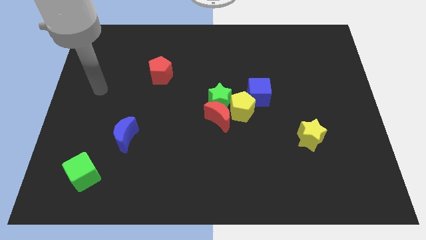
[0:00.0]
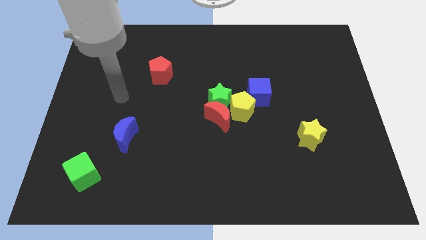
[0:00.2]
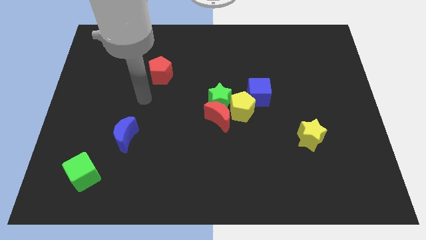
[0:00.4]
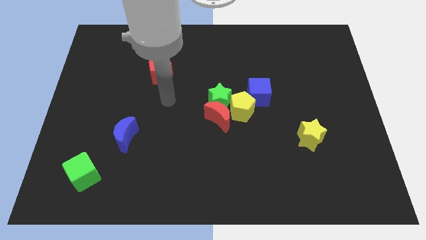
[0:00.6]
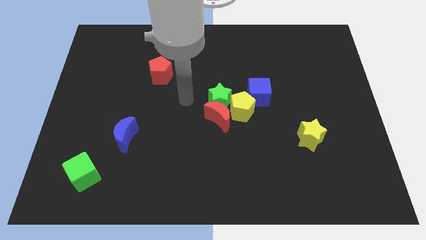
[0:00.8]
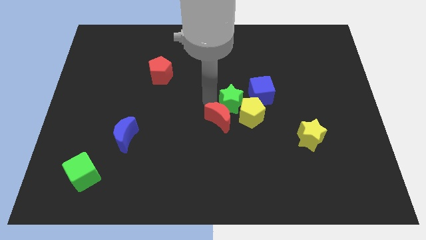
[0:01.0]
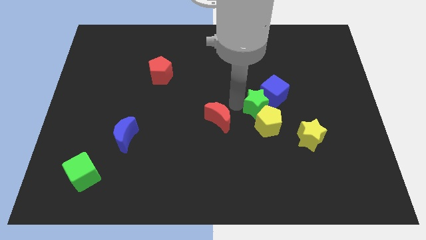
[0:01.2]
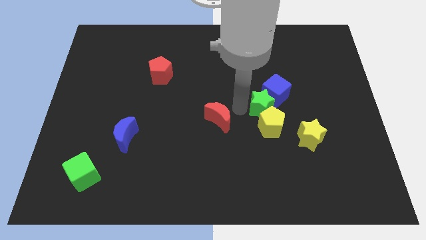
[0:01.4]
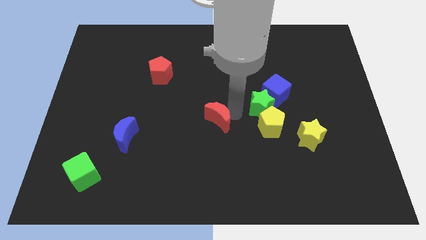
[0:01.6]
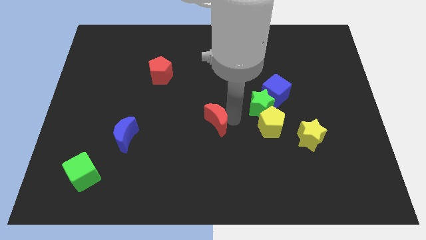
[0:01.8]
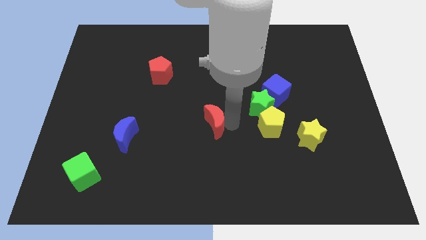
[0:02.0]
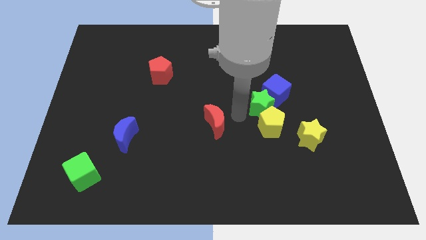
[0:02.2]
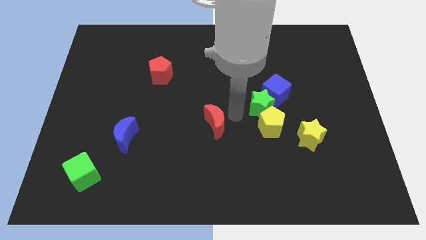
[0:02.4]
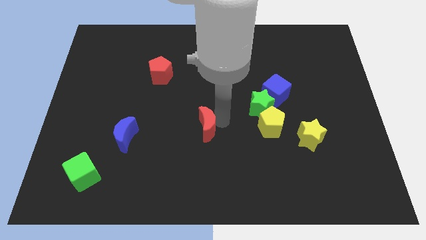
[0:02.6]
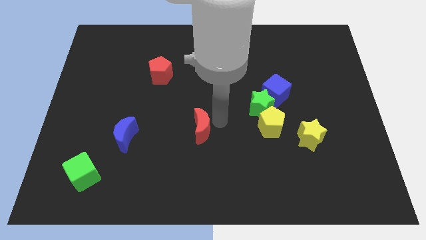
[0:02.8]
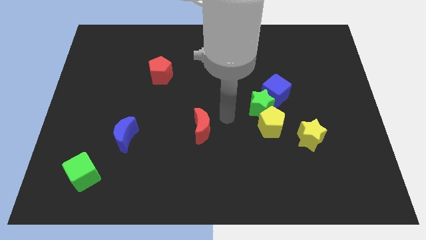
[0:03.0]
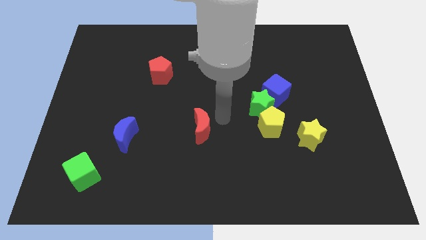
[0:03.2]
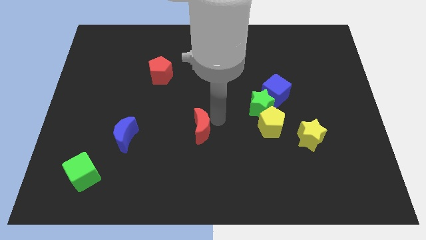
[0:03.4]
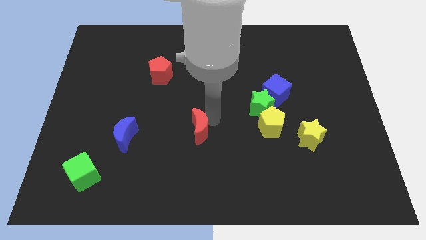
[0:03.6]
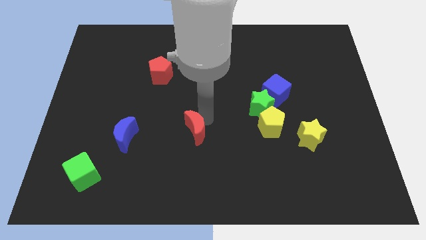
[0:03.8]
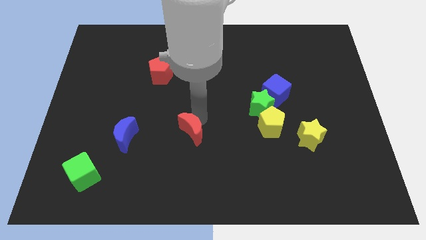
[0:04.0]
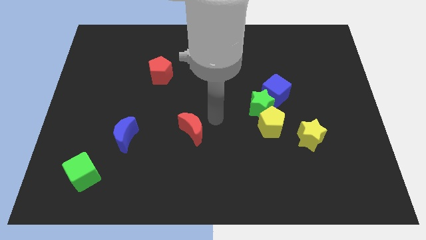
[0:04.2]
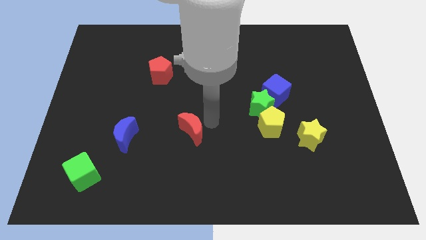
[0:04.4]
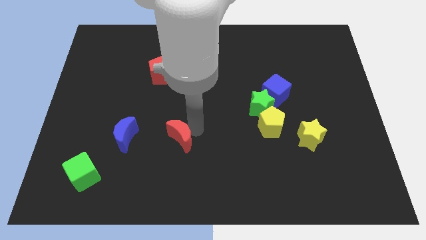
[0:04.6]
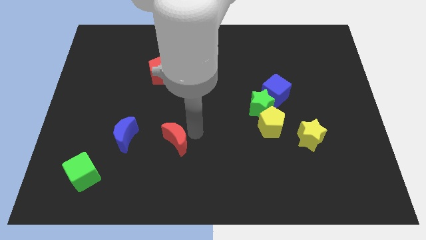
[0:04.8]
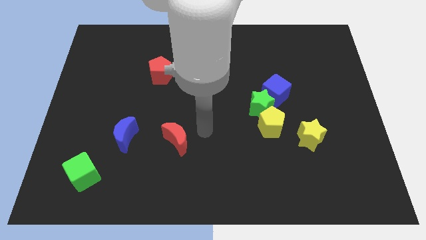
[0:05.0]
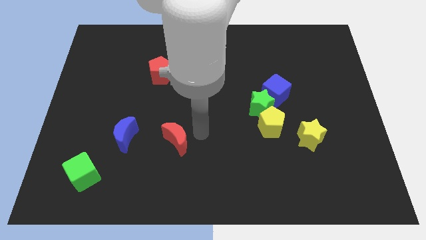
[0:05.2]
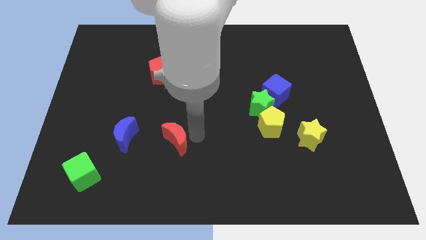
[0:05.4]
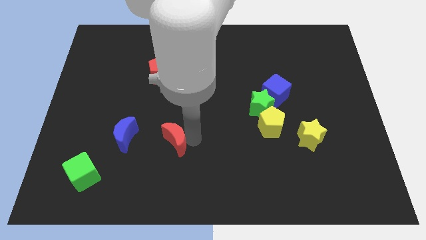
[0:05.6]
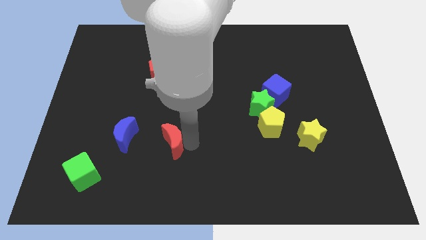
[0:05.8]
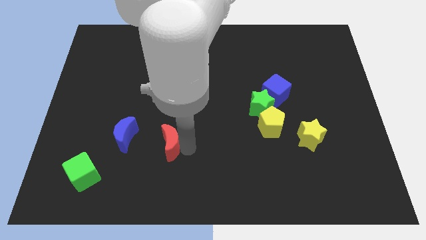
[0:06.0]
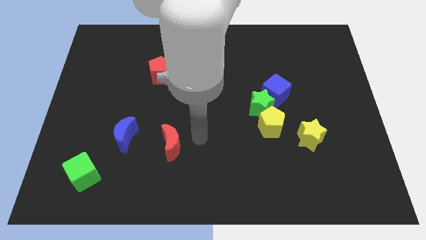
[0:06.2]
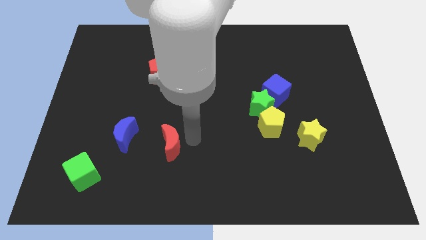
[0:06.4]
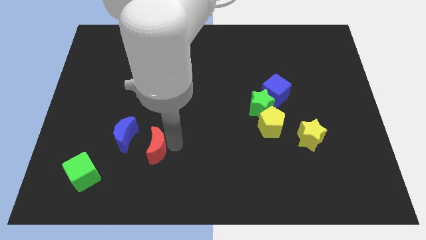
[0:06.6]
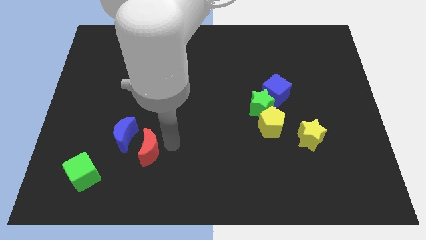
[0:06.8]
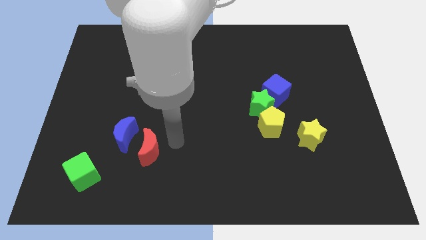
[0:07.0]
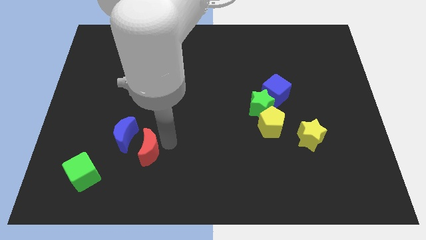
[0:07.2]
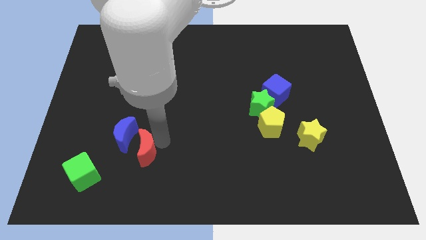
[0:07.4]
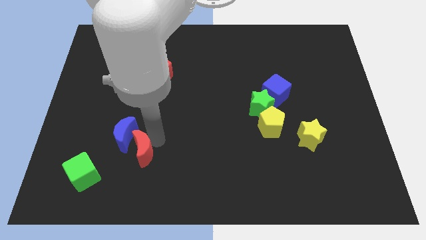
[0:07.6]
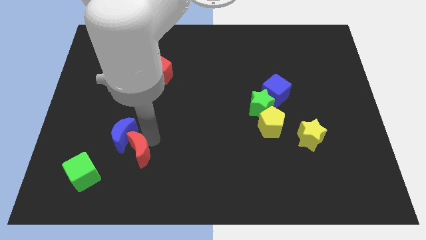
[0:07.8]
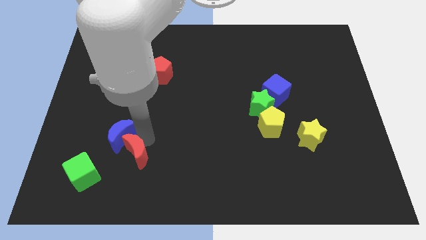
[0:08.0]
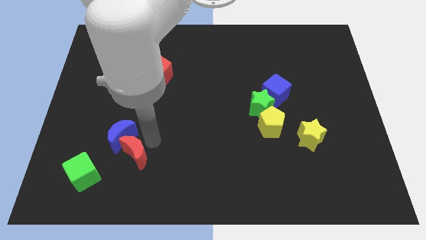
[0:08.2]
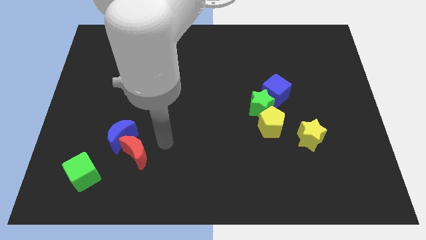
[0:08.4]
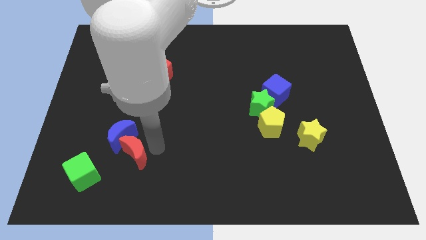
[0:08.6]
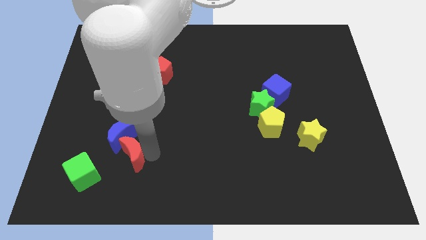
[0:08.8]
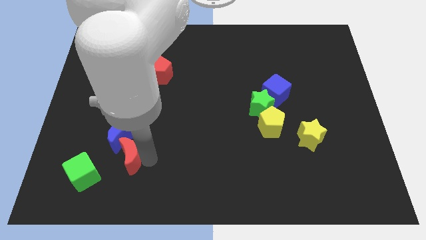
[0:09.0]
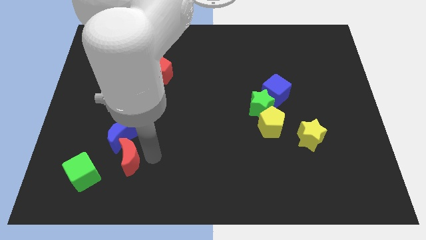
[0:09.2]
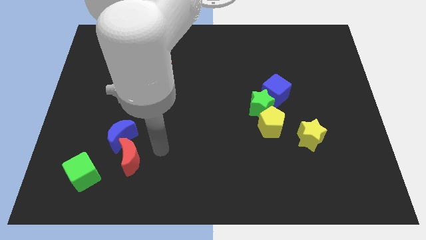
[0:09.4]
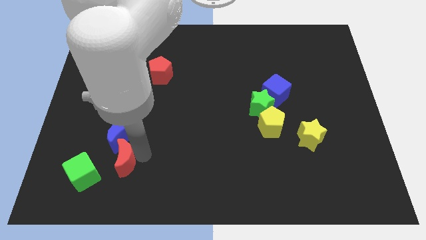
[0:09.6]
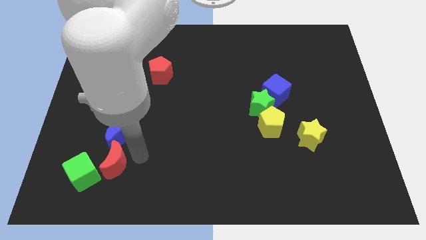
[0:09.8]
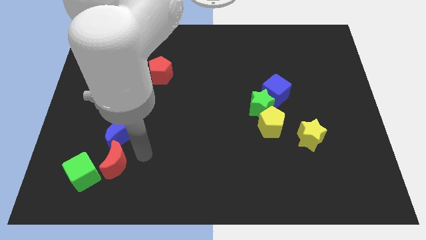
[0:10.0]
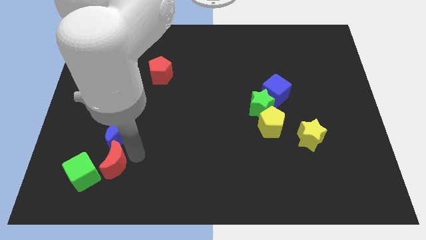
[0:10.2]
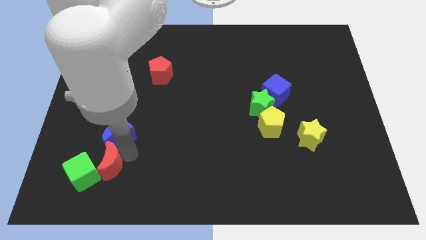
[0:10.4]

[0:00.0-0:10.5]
put the red moon towards the green cube

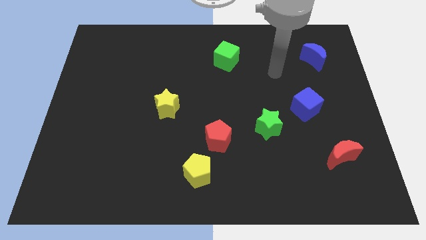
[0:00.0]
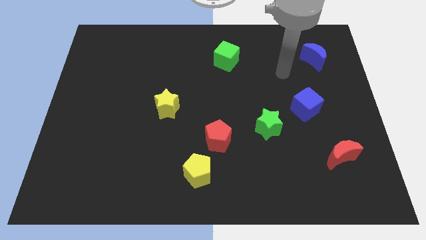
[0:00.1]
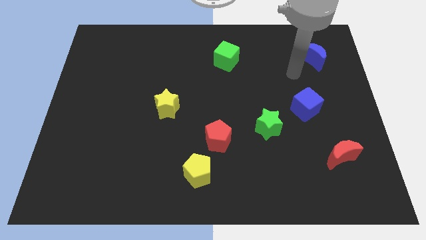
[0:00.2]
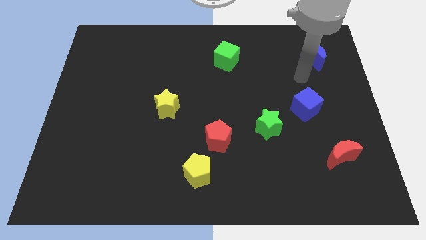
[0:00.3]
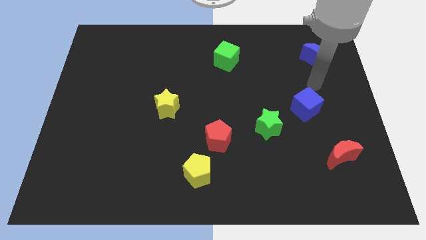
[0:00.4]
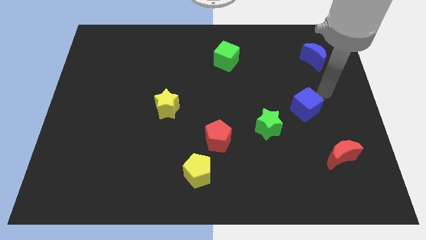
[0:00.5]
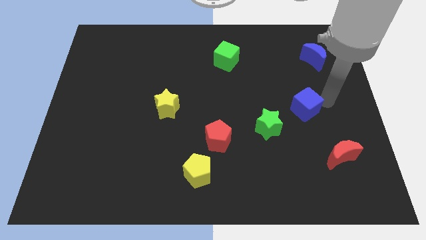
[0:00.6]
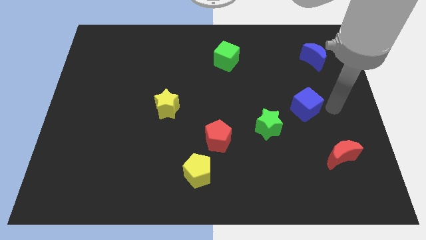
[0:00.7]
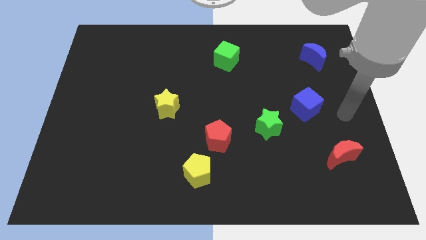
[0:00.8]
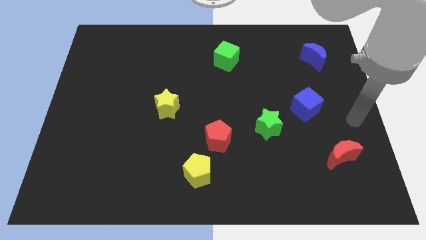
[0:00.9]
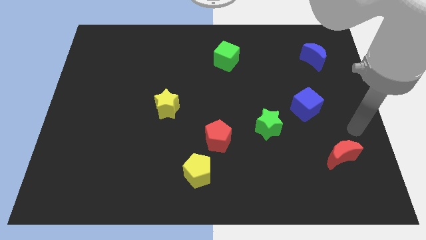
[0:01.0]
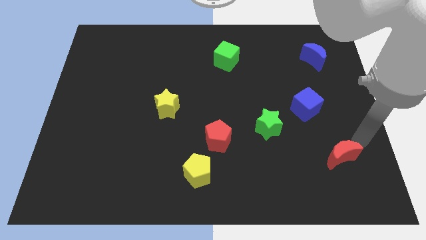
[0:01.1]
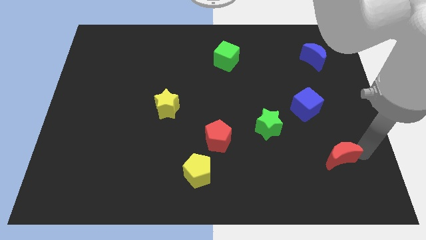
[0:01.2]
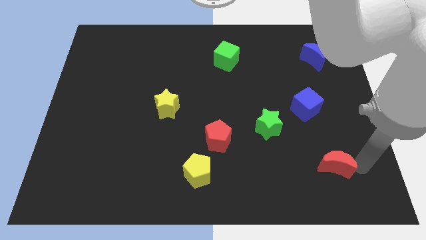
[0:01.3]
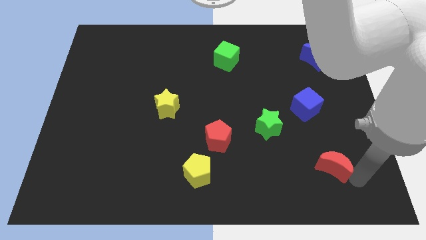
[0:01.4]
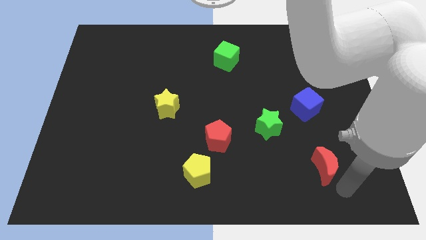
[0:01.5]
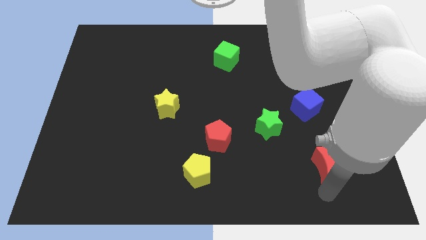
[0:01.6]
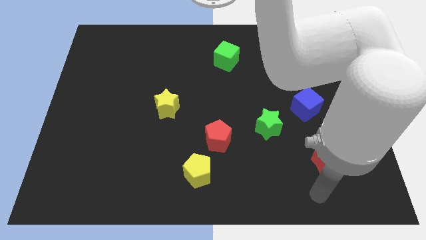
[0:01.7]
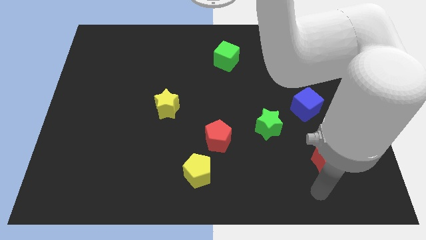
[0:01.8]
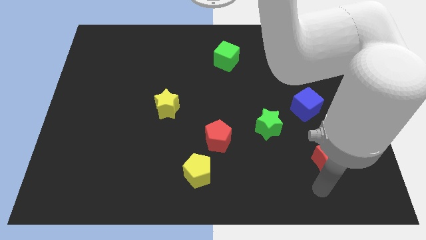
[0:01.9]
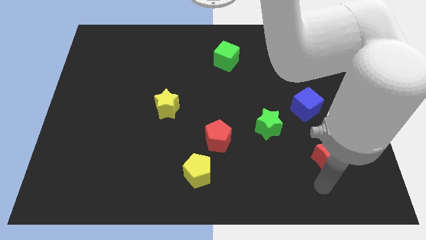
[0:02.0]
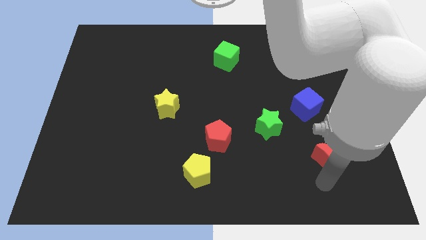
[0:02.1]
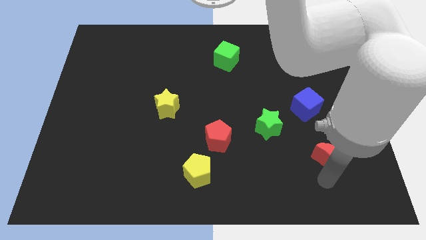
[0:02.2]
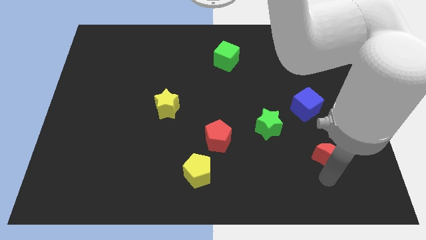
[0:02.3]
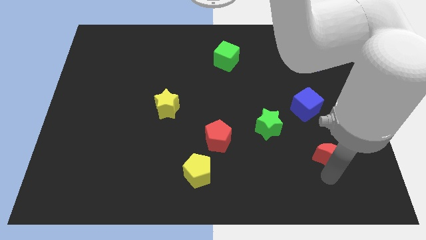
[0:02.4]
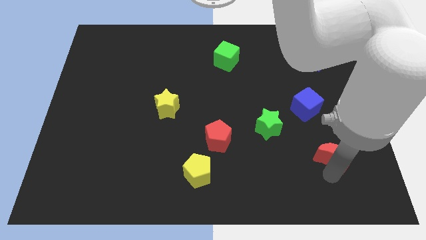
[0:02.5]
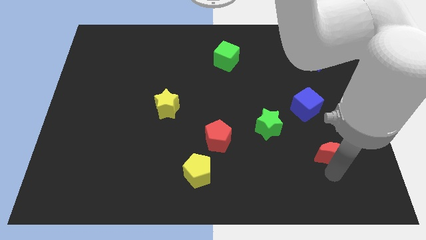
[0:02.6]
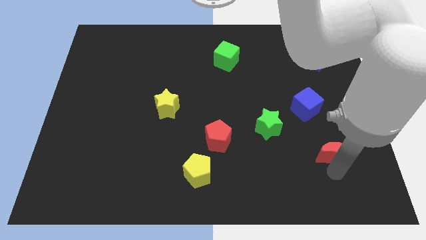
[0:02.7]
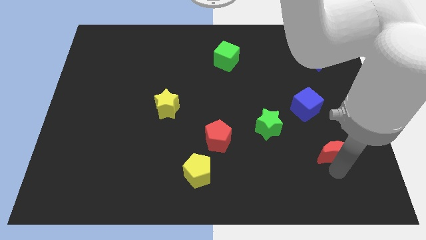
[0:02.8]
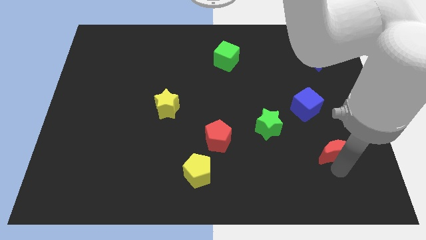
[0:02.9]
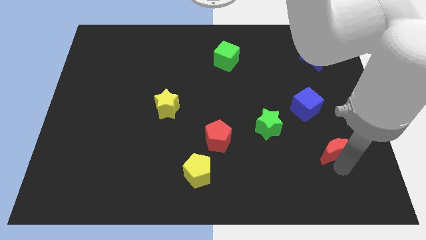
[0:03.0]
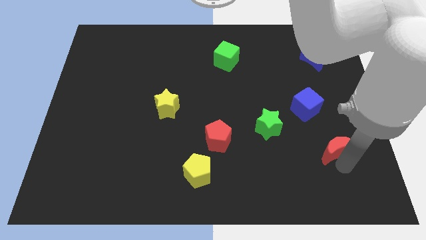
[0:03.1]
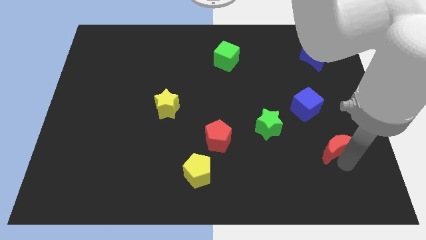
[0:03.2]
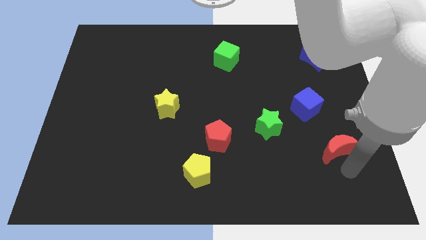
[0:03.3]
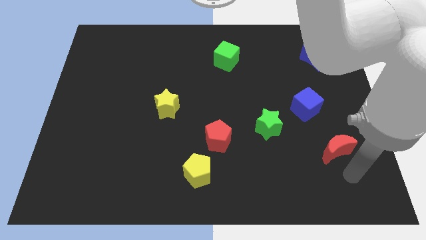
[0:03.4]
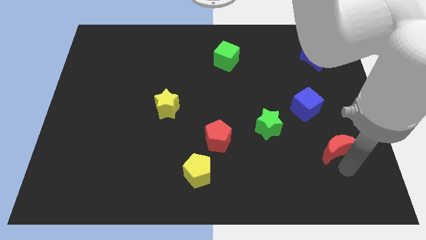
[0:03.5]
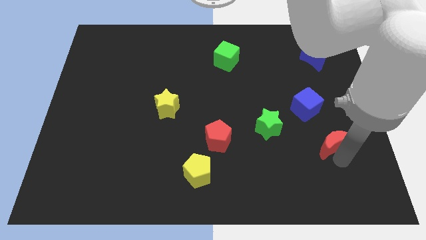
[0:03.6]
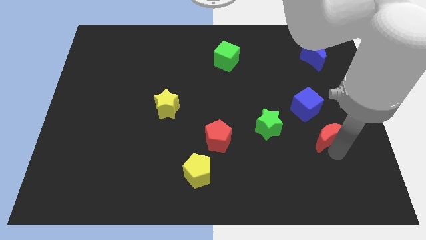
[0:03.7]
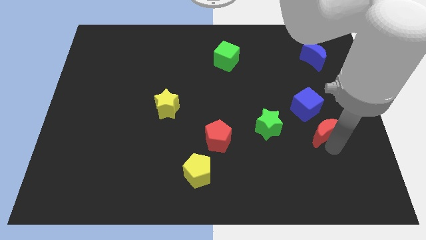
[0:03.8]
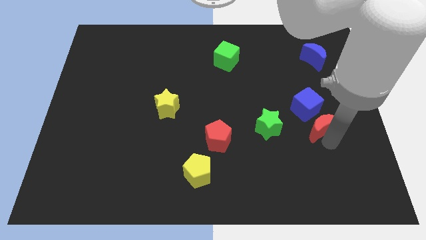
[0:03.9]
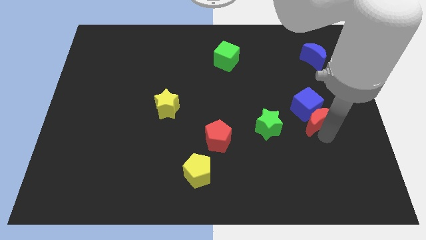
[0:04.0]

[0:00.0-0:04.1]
put the red moon to the blue cube
